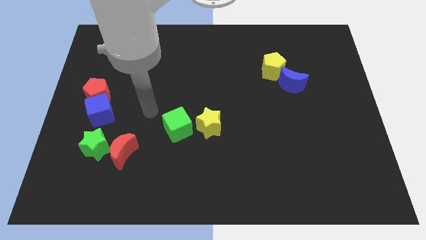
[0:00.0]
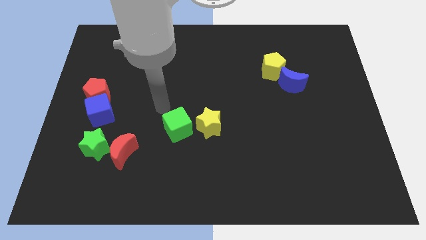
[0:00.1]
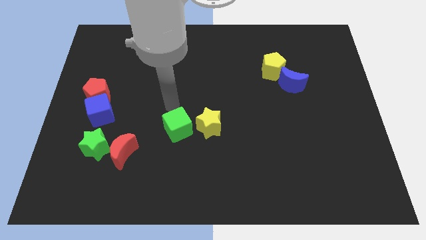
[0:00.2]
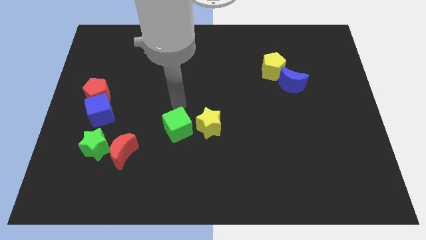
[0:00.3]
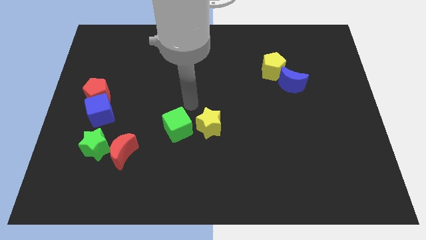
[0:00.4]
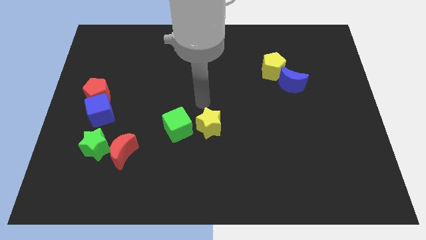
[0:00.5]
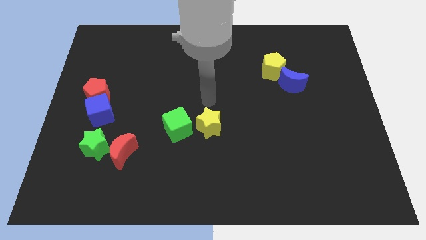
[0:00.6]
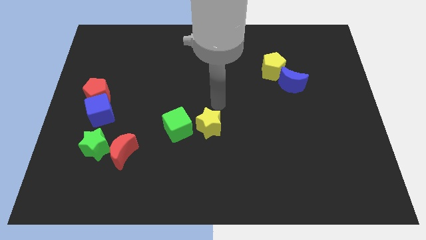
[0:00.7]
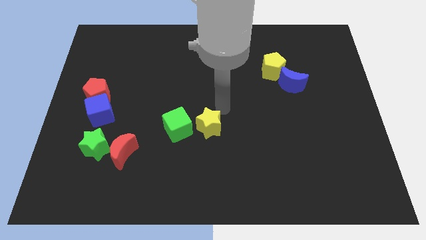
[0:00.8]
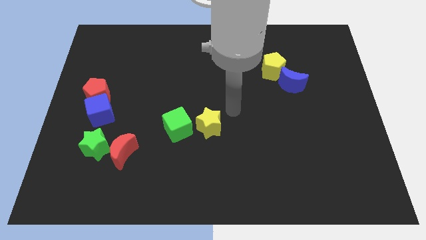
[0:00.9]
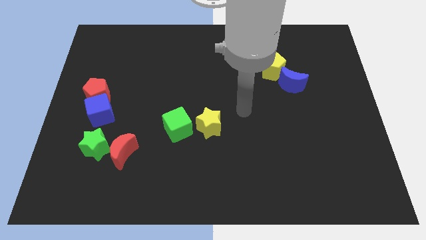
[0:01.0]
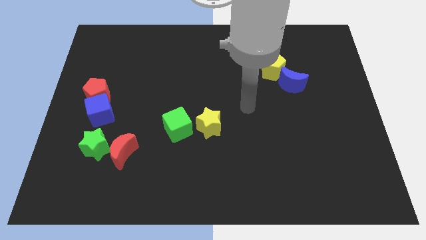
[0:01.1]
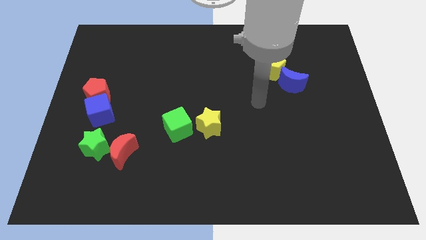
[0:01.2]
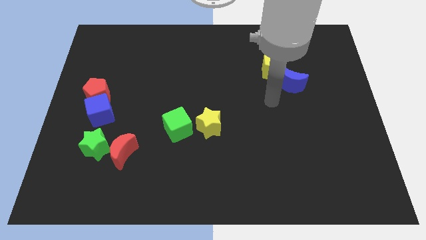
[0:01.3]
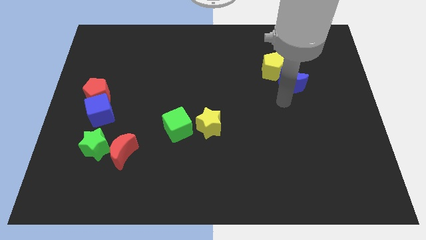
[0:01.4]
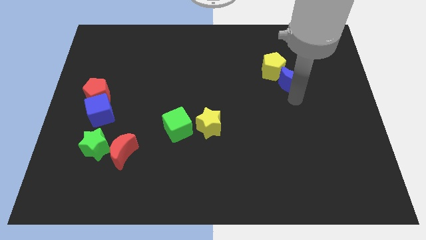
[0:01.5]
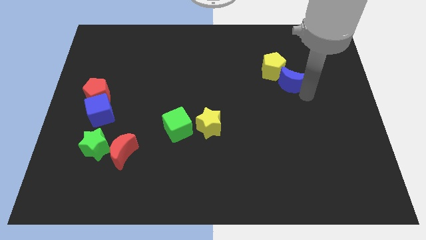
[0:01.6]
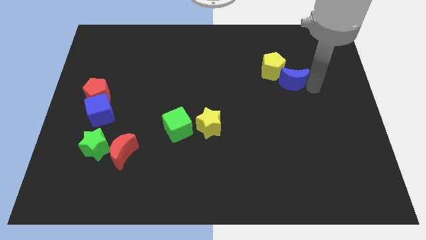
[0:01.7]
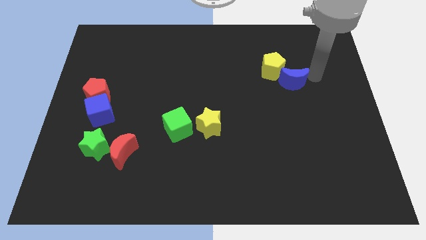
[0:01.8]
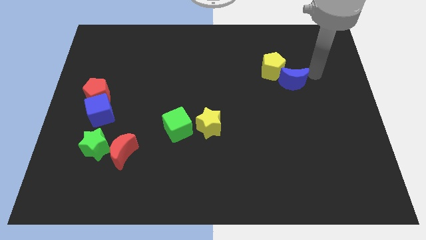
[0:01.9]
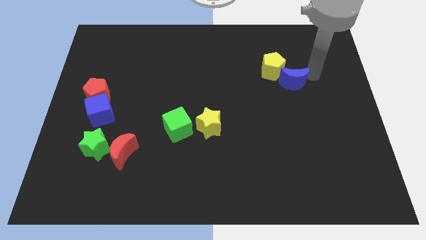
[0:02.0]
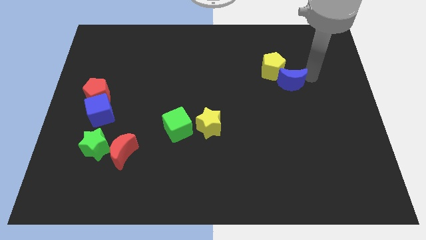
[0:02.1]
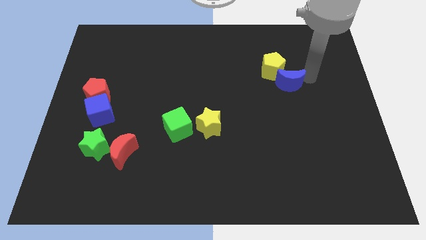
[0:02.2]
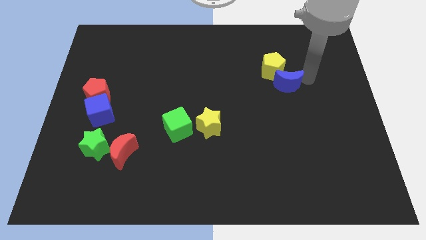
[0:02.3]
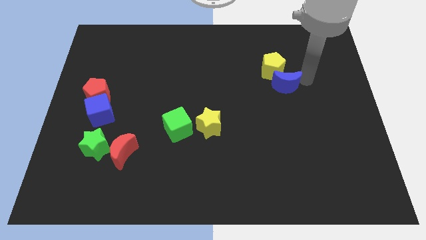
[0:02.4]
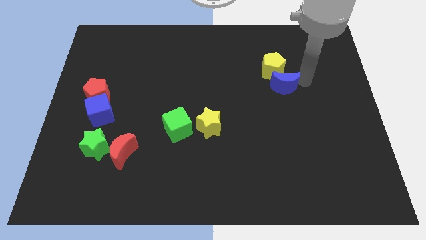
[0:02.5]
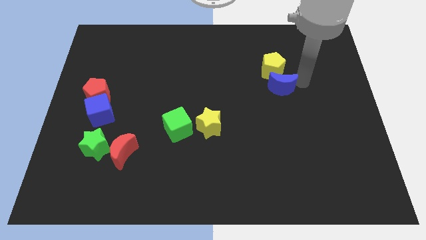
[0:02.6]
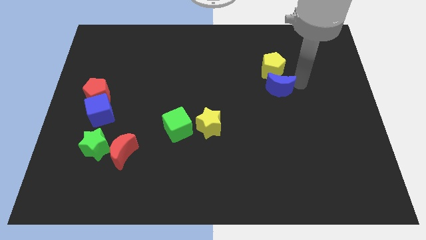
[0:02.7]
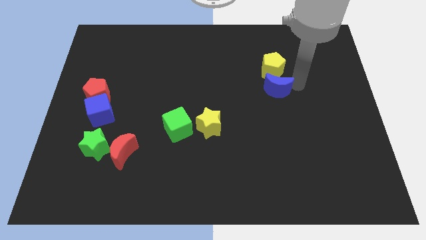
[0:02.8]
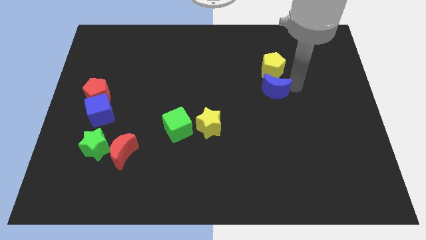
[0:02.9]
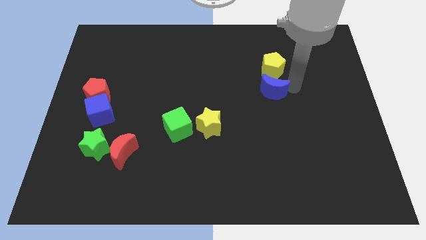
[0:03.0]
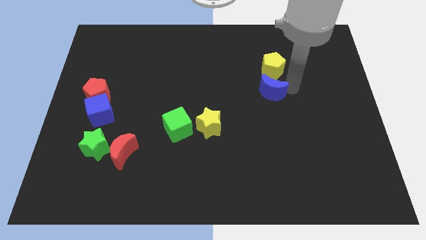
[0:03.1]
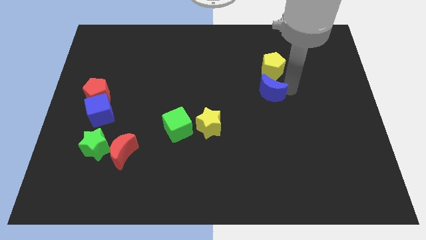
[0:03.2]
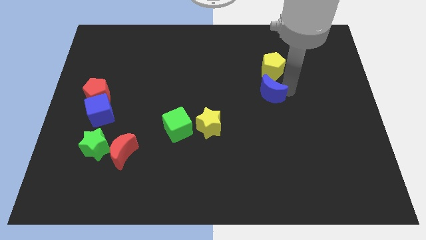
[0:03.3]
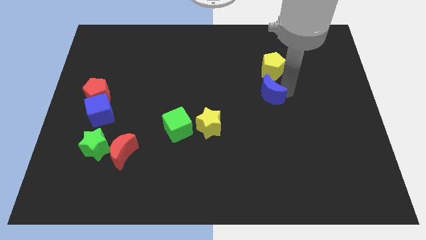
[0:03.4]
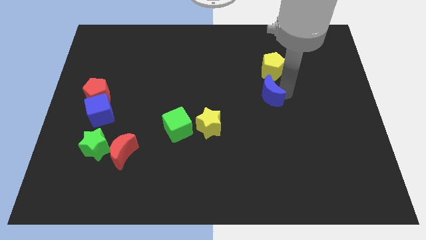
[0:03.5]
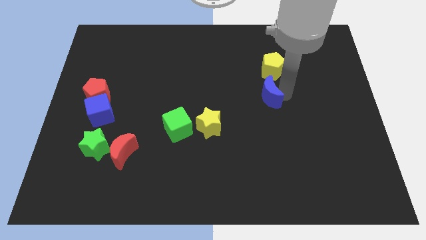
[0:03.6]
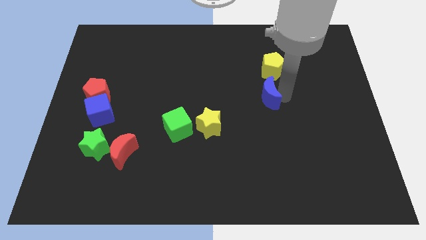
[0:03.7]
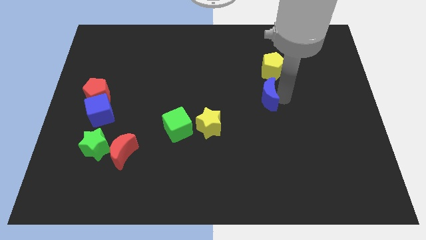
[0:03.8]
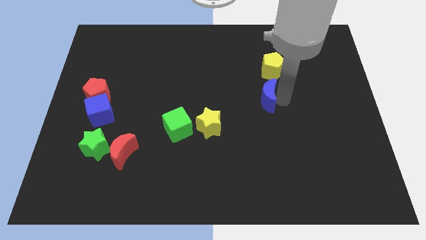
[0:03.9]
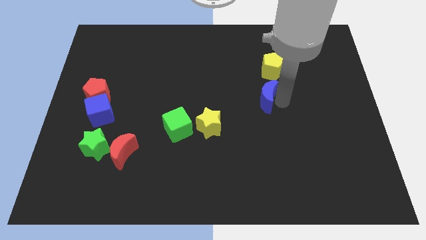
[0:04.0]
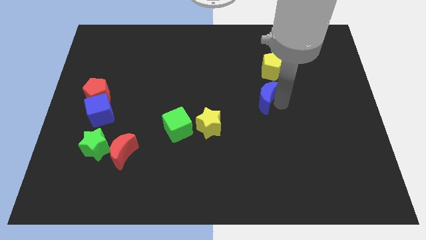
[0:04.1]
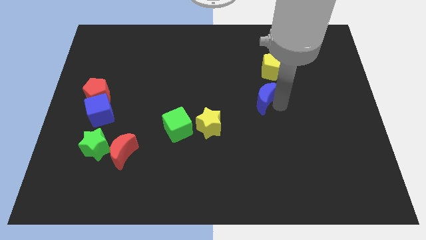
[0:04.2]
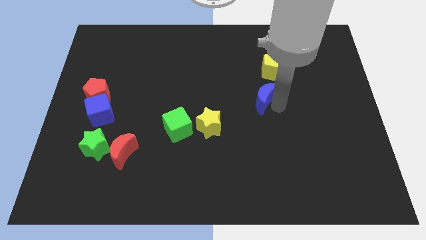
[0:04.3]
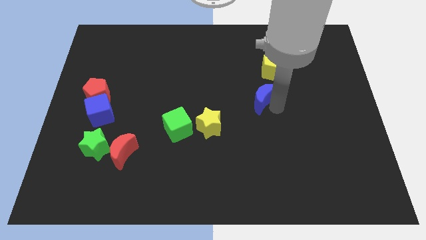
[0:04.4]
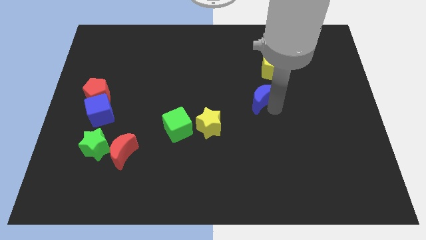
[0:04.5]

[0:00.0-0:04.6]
push the blue moon a little bit to the left

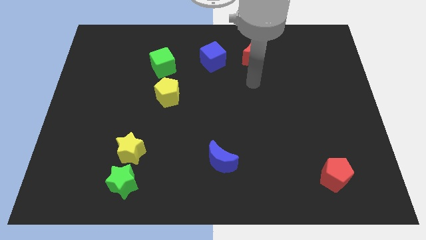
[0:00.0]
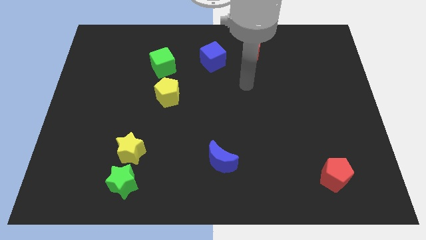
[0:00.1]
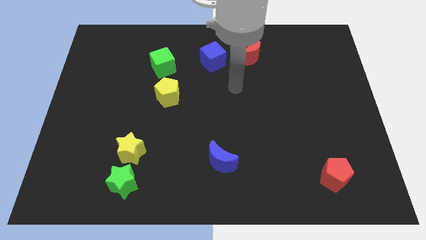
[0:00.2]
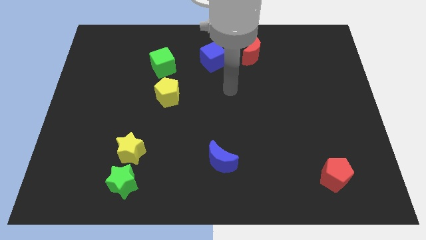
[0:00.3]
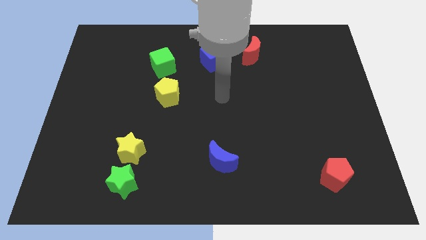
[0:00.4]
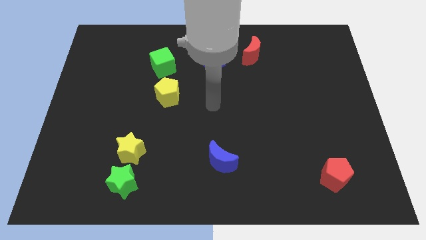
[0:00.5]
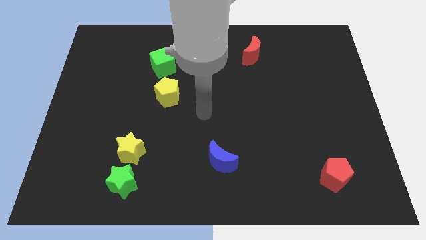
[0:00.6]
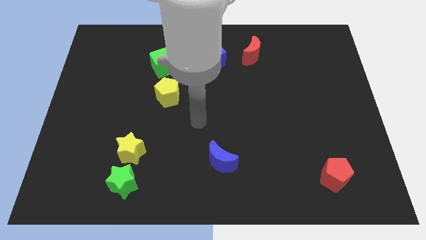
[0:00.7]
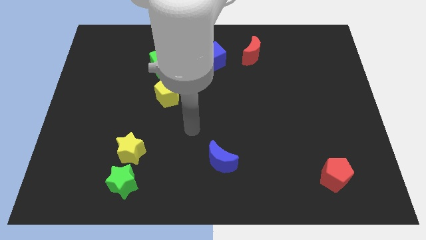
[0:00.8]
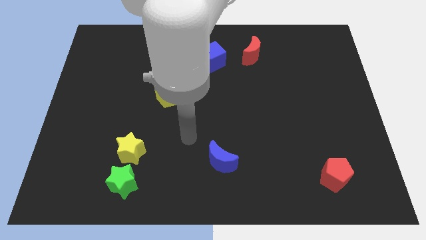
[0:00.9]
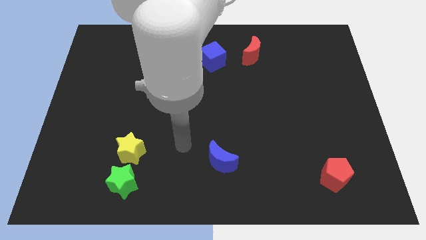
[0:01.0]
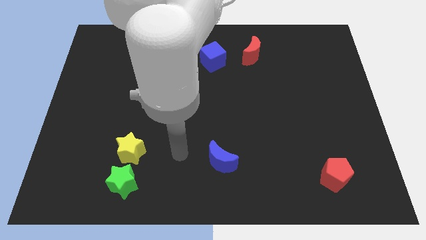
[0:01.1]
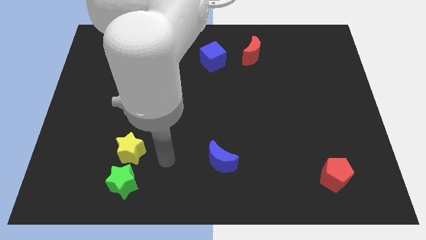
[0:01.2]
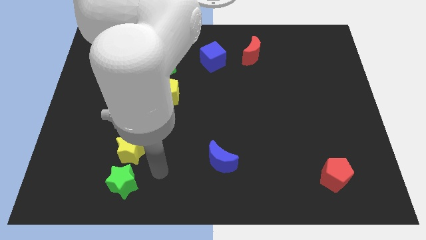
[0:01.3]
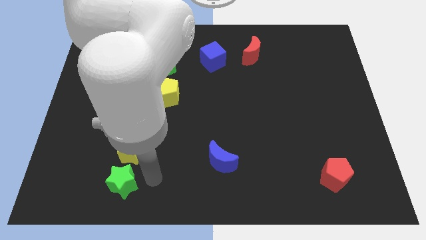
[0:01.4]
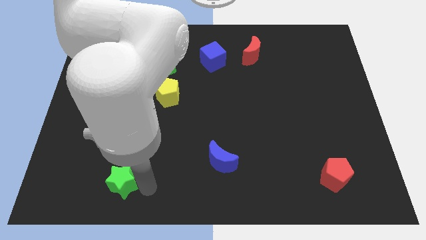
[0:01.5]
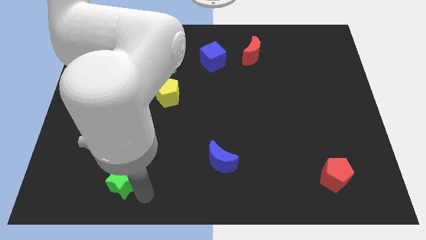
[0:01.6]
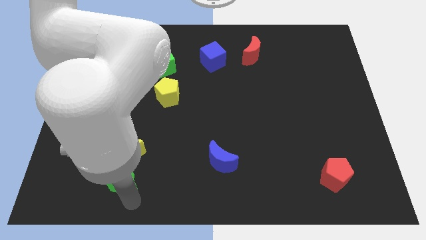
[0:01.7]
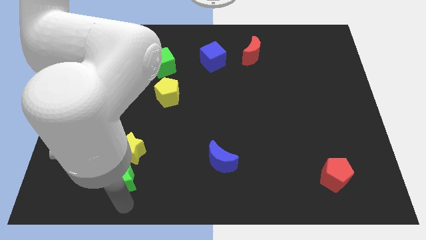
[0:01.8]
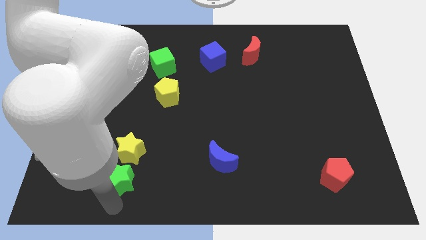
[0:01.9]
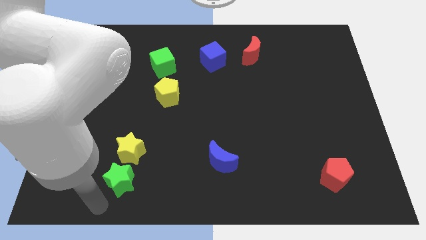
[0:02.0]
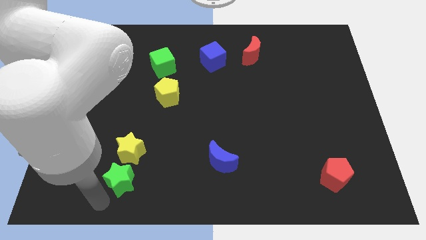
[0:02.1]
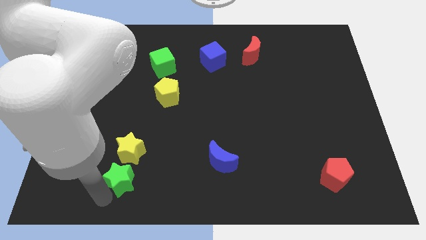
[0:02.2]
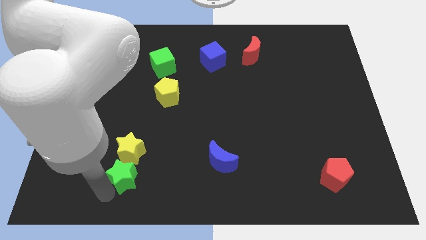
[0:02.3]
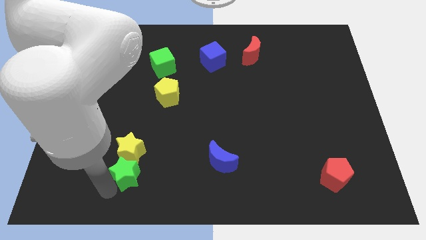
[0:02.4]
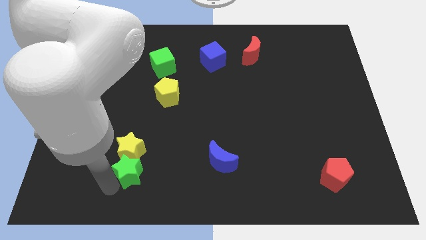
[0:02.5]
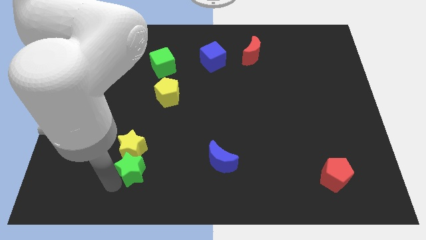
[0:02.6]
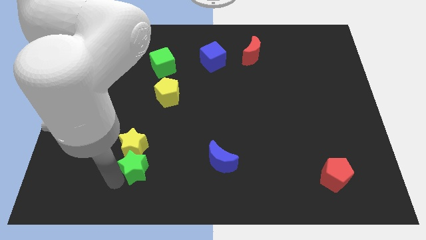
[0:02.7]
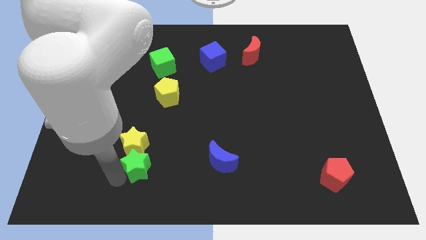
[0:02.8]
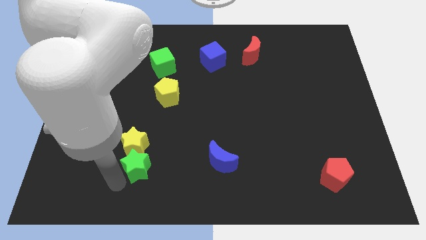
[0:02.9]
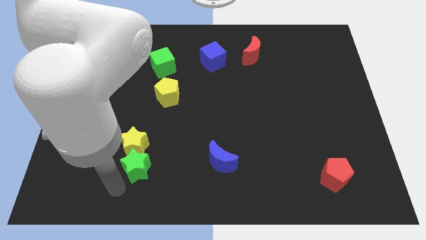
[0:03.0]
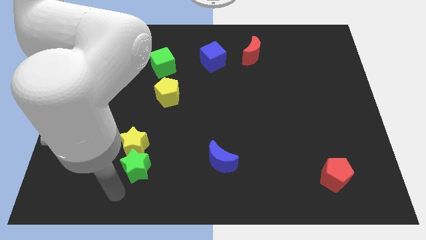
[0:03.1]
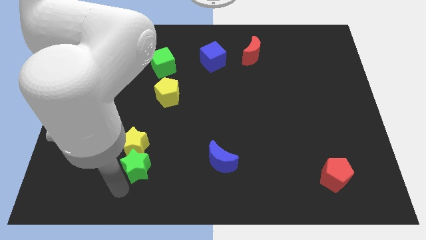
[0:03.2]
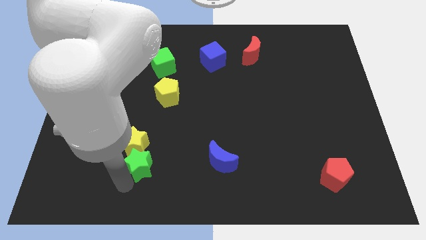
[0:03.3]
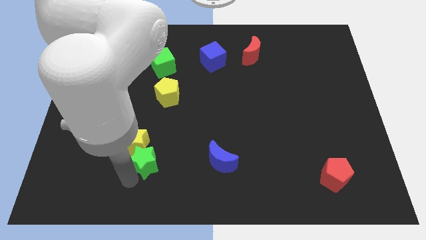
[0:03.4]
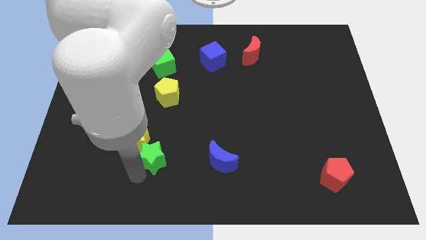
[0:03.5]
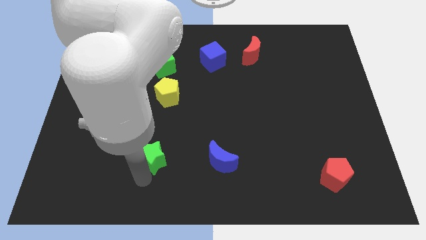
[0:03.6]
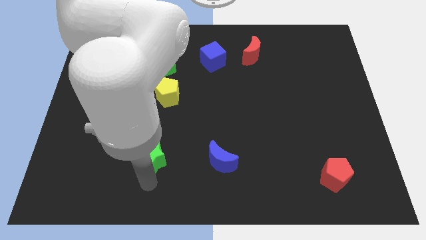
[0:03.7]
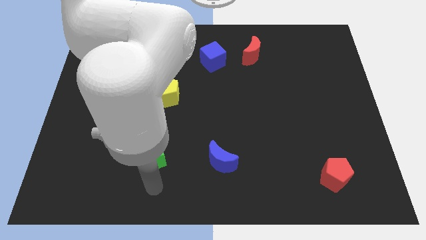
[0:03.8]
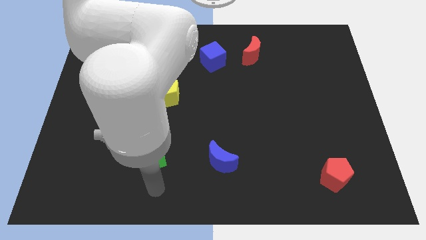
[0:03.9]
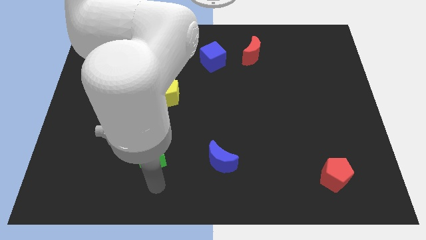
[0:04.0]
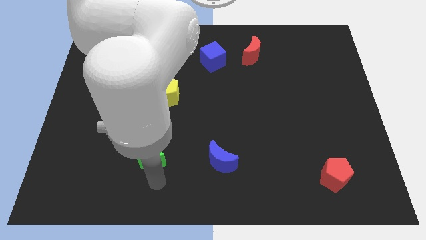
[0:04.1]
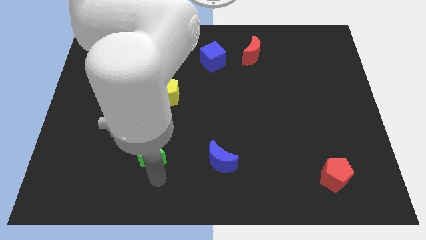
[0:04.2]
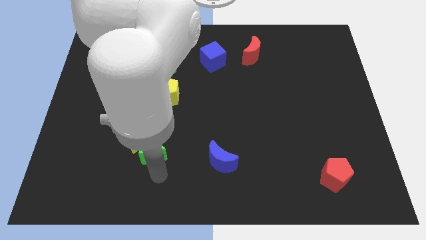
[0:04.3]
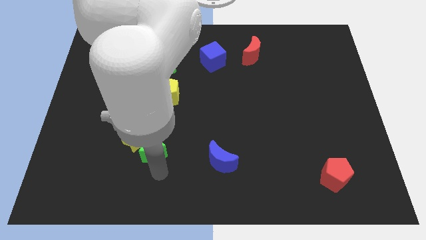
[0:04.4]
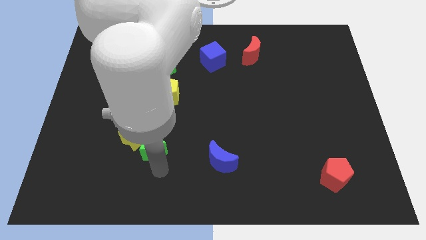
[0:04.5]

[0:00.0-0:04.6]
move the green star somewhat up
